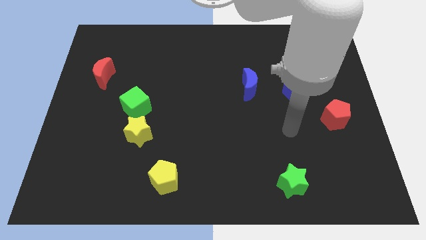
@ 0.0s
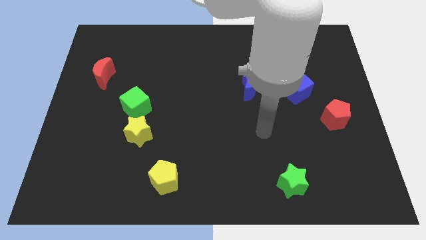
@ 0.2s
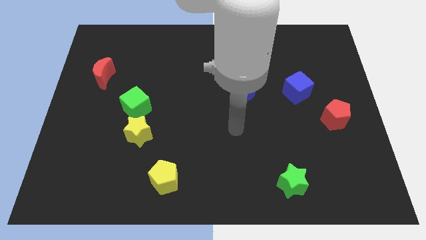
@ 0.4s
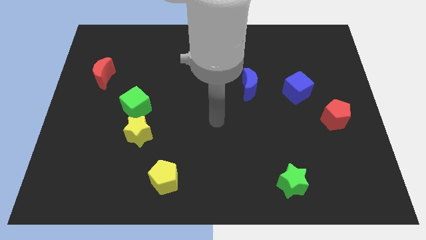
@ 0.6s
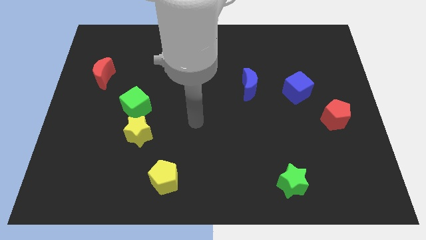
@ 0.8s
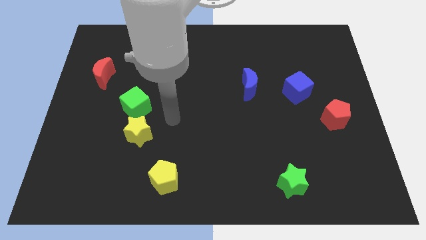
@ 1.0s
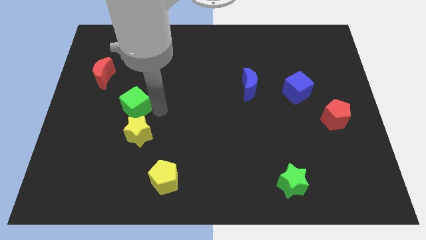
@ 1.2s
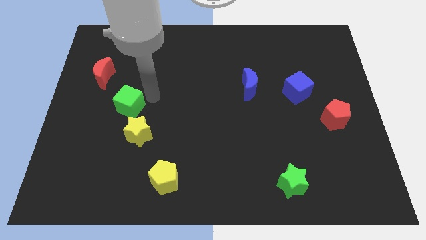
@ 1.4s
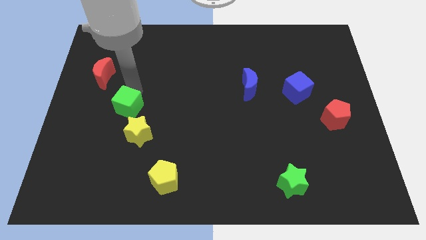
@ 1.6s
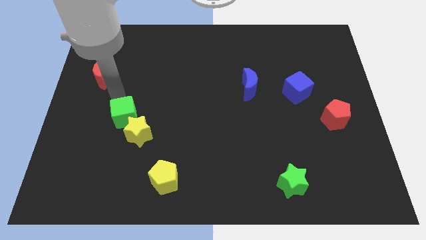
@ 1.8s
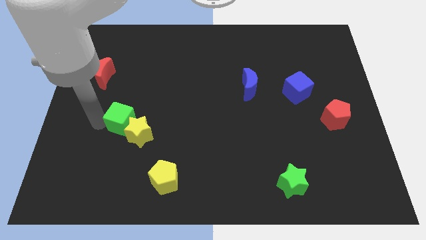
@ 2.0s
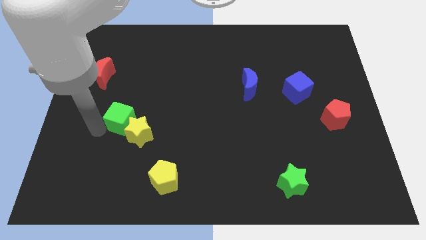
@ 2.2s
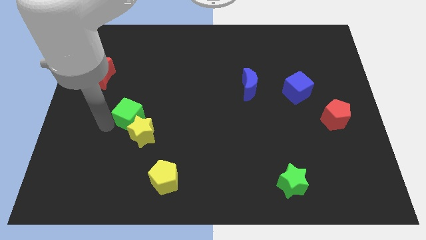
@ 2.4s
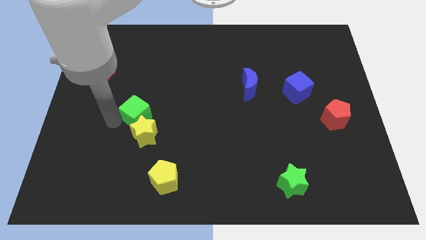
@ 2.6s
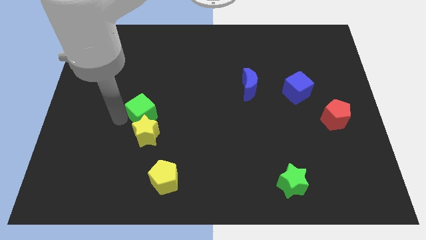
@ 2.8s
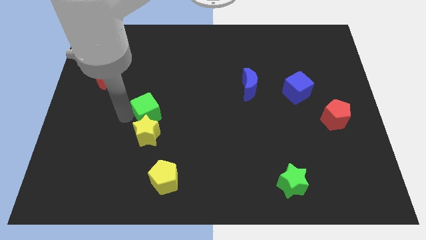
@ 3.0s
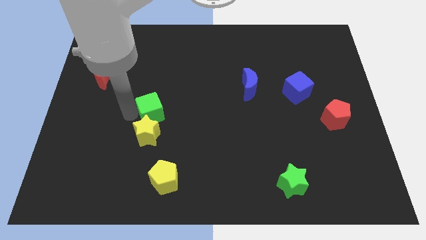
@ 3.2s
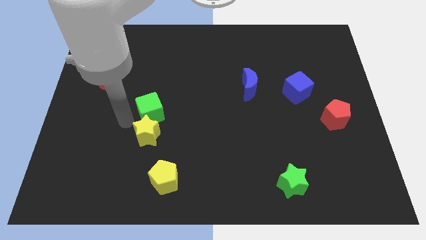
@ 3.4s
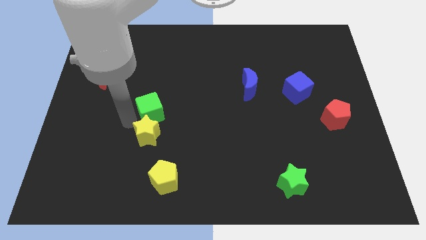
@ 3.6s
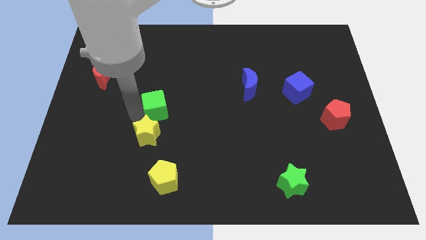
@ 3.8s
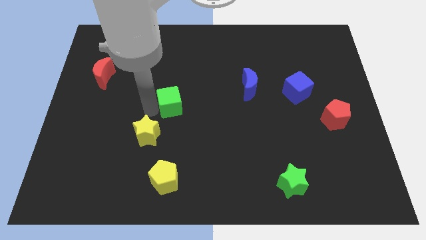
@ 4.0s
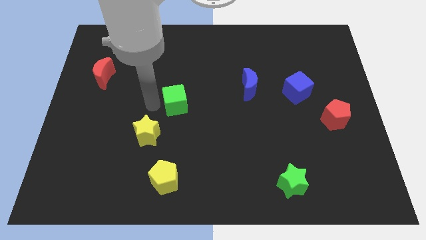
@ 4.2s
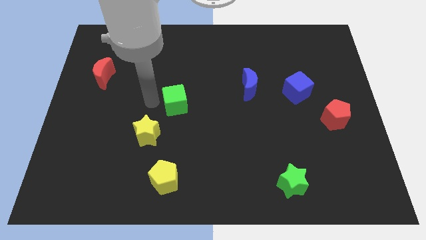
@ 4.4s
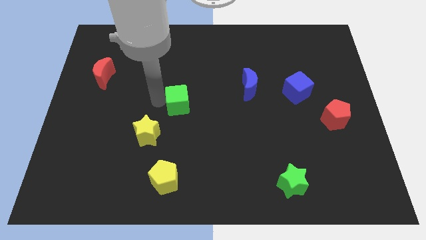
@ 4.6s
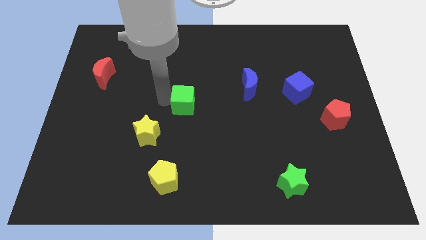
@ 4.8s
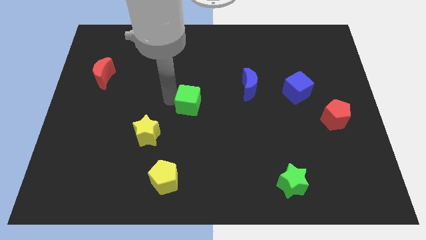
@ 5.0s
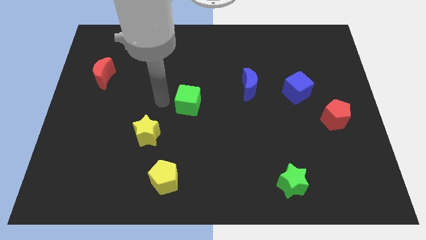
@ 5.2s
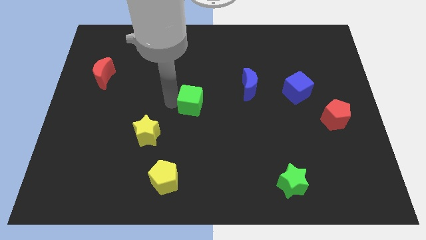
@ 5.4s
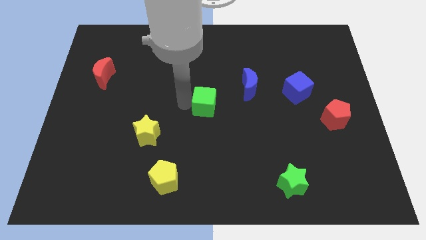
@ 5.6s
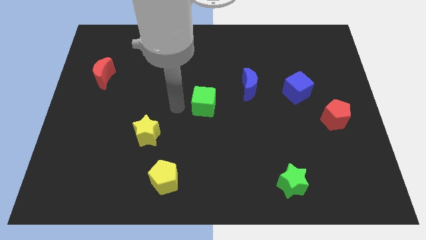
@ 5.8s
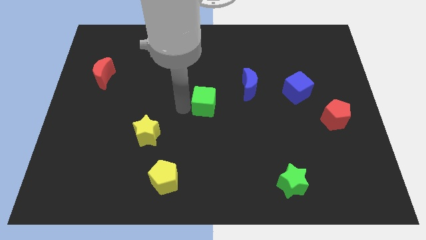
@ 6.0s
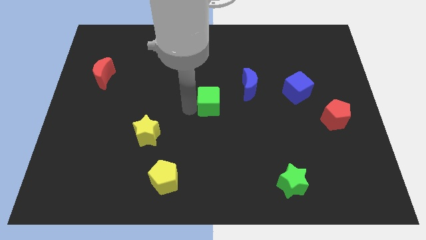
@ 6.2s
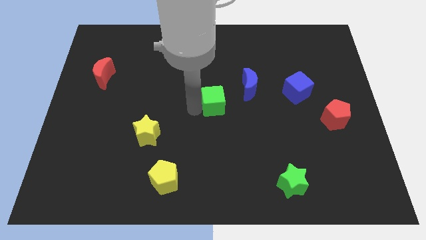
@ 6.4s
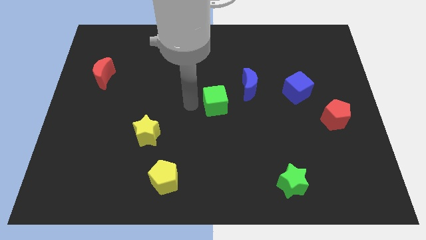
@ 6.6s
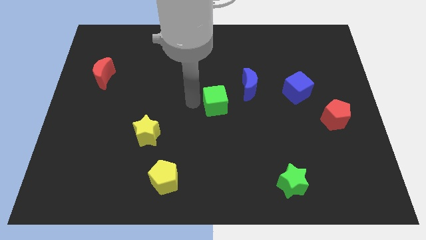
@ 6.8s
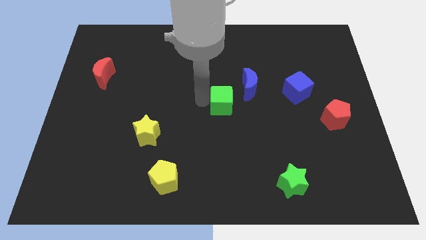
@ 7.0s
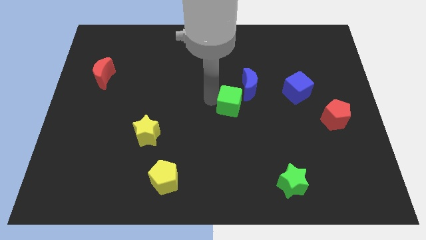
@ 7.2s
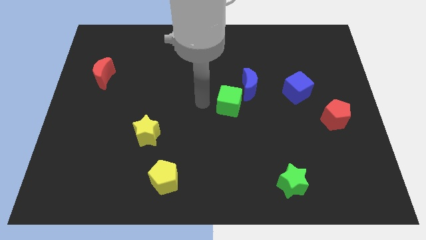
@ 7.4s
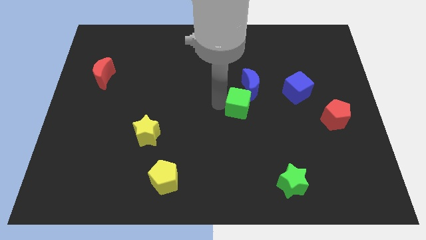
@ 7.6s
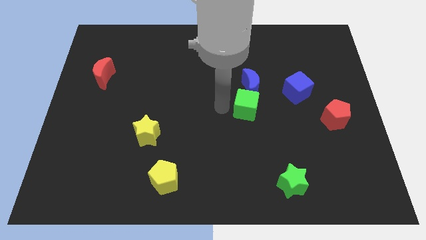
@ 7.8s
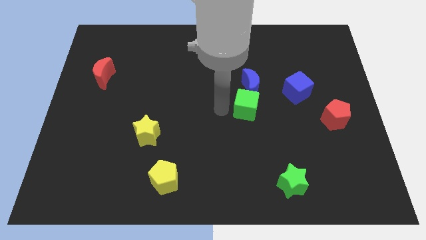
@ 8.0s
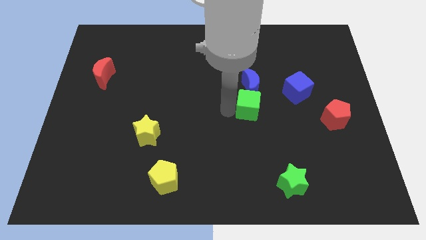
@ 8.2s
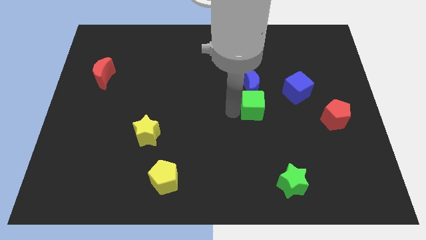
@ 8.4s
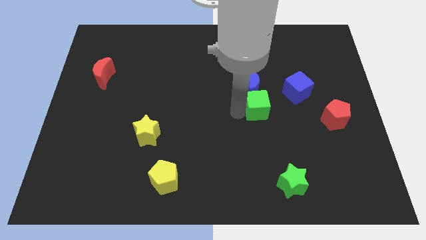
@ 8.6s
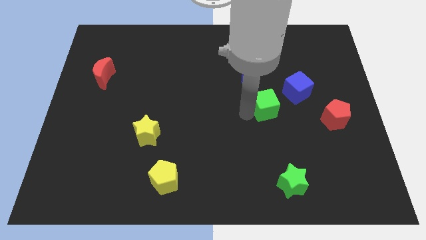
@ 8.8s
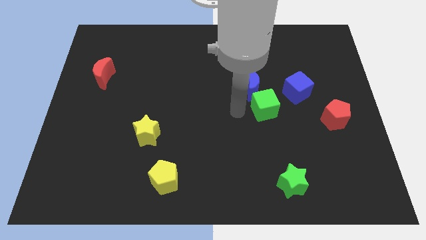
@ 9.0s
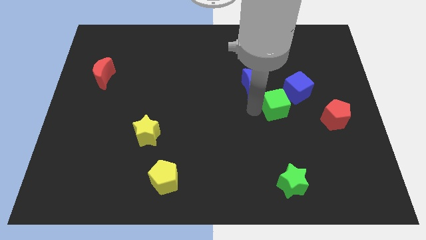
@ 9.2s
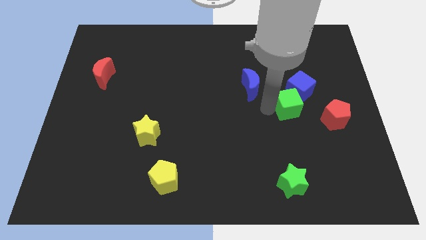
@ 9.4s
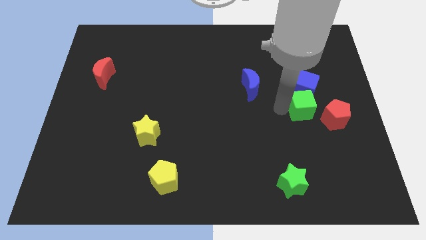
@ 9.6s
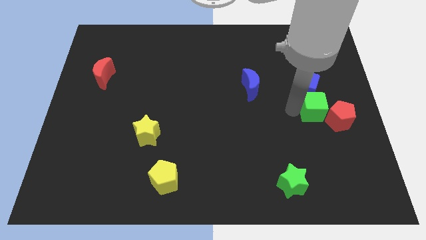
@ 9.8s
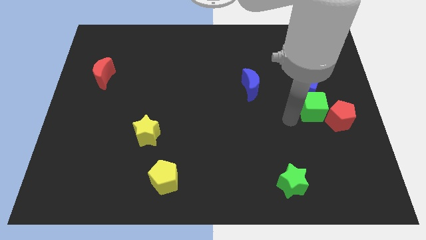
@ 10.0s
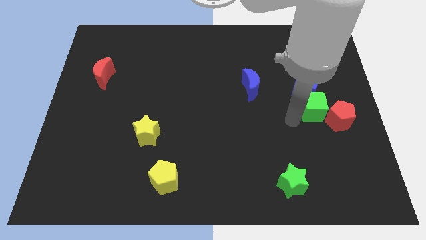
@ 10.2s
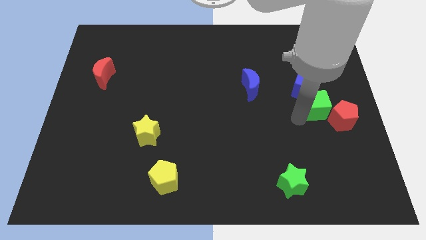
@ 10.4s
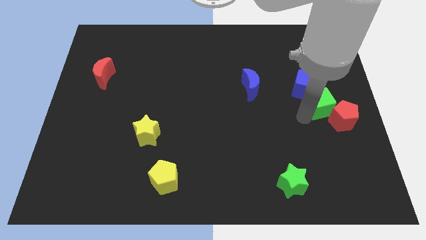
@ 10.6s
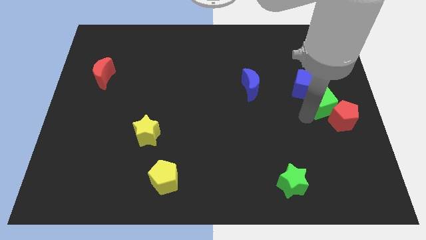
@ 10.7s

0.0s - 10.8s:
put the green cube to the right side of the board
